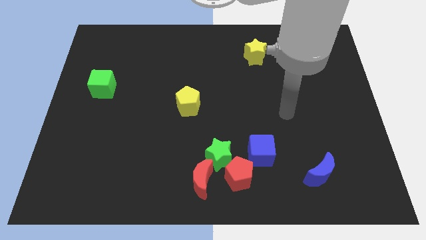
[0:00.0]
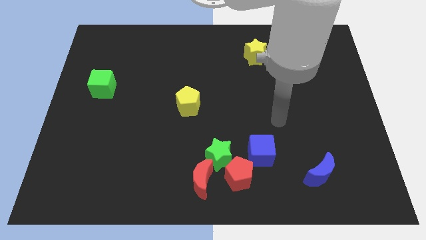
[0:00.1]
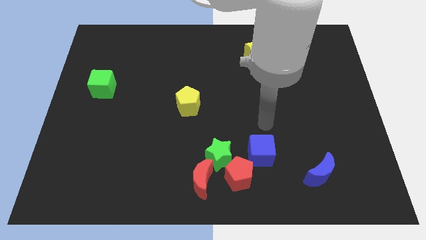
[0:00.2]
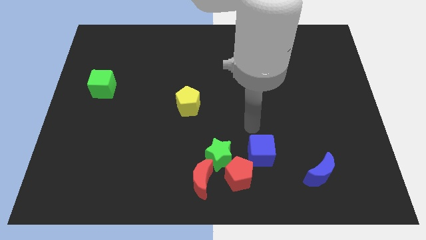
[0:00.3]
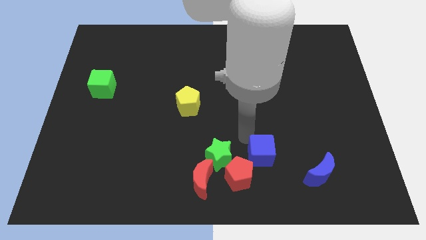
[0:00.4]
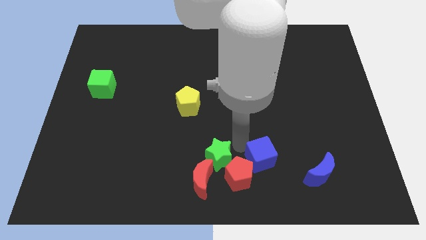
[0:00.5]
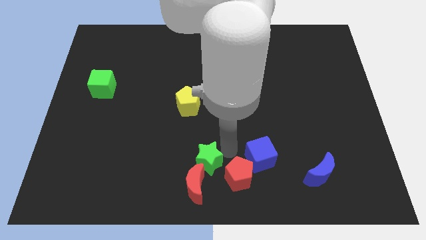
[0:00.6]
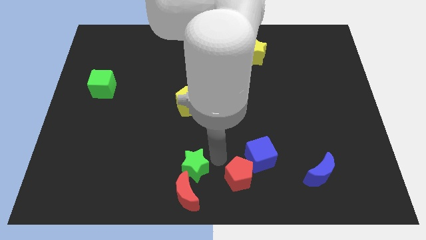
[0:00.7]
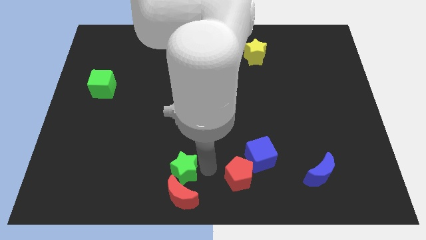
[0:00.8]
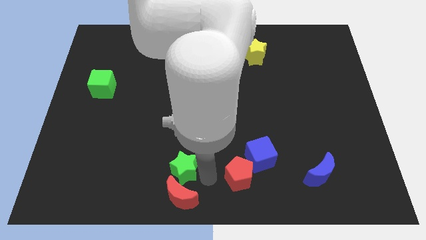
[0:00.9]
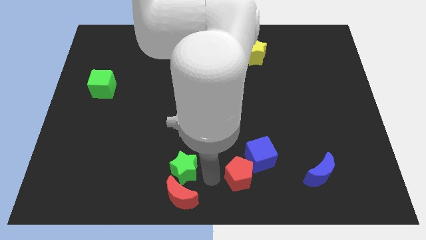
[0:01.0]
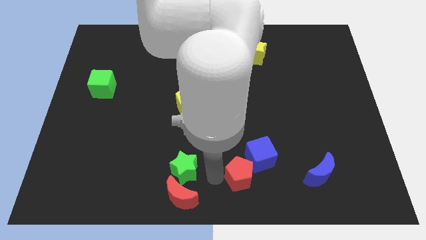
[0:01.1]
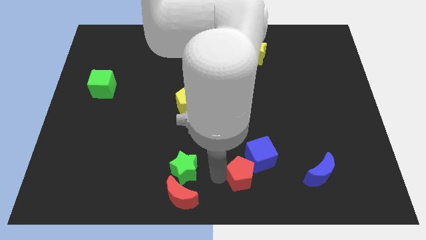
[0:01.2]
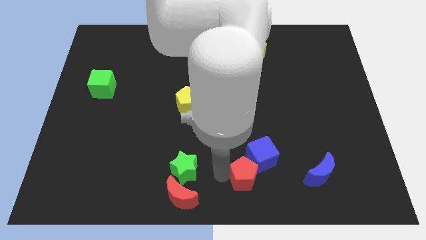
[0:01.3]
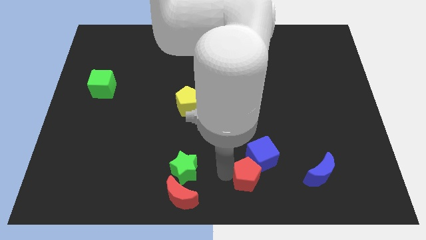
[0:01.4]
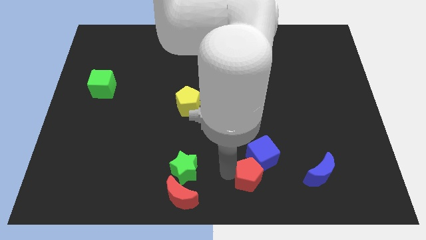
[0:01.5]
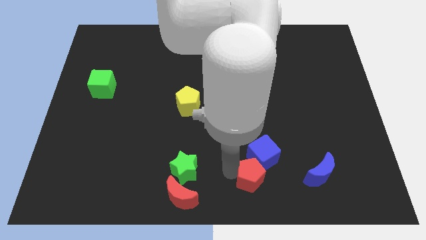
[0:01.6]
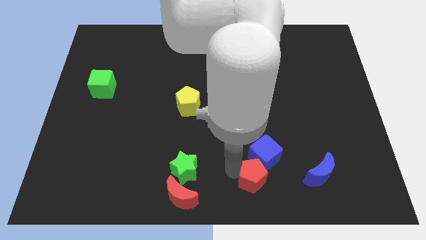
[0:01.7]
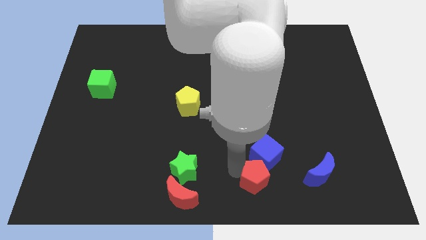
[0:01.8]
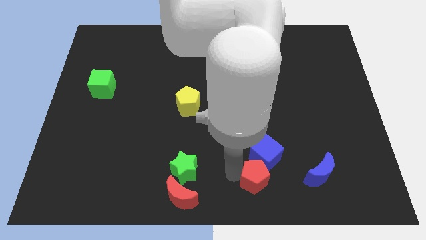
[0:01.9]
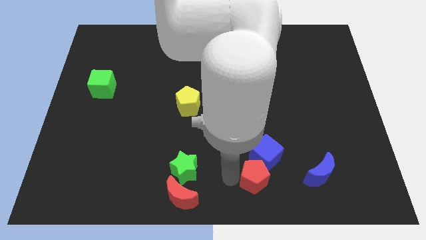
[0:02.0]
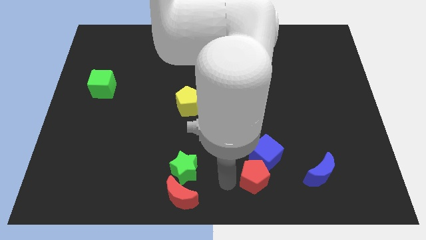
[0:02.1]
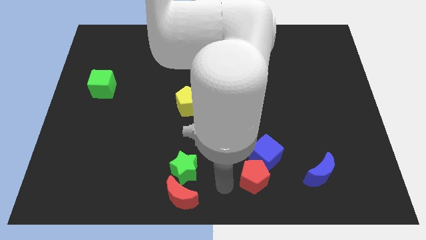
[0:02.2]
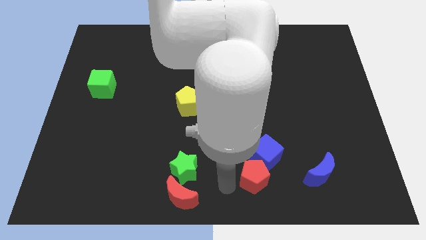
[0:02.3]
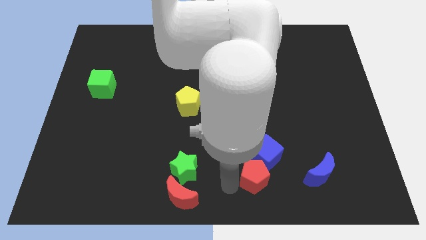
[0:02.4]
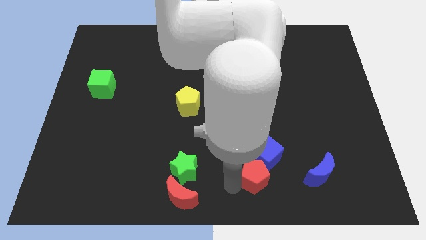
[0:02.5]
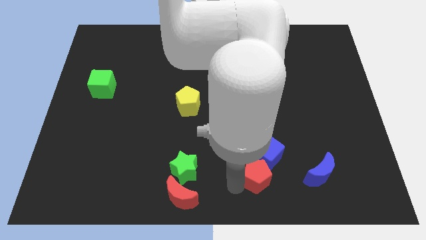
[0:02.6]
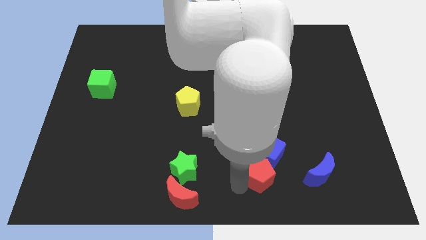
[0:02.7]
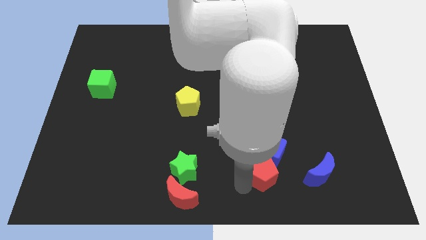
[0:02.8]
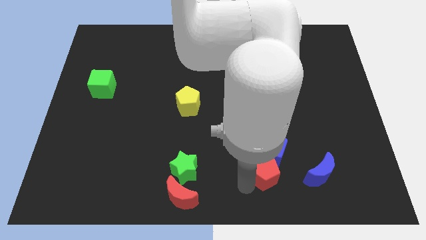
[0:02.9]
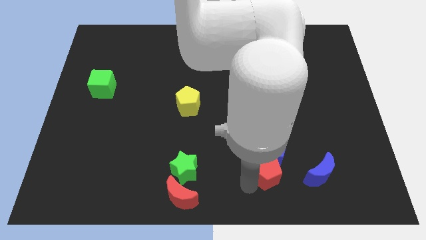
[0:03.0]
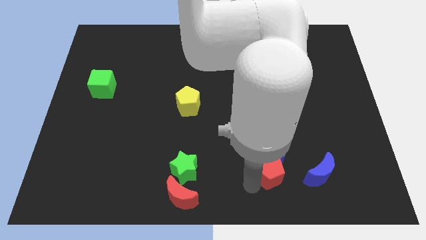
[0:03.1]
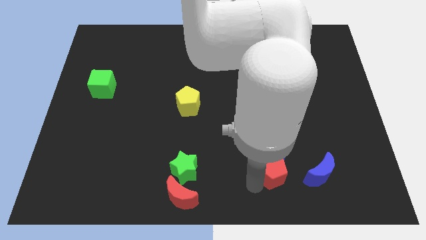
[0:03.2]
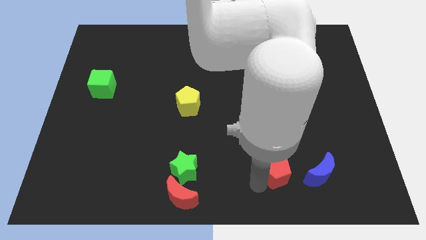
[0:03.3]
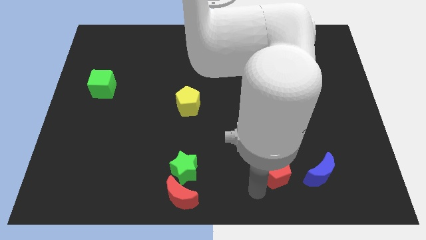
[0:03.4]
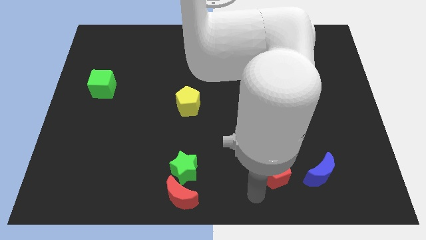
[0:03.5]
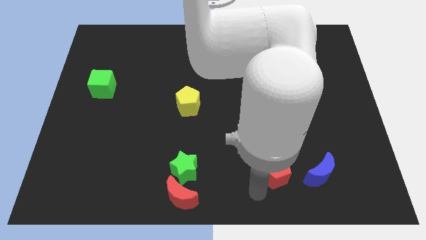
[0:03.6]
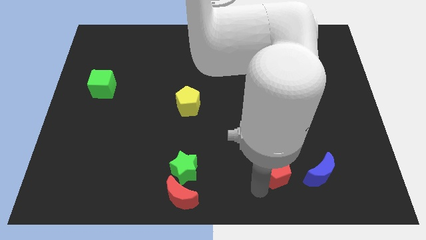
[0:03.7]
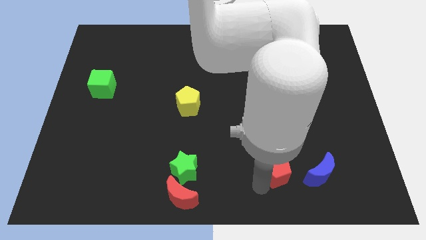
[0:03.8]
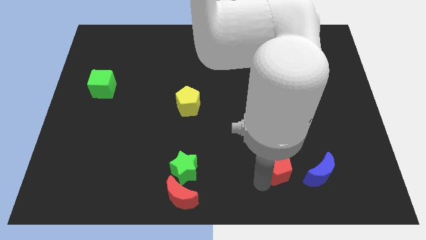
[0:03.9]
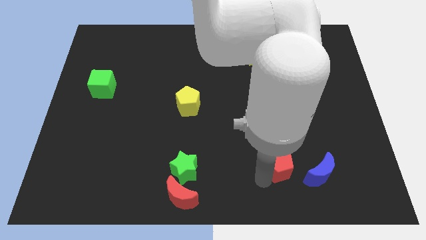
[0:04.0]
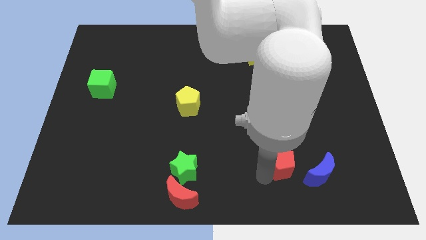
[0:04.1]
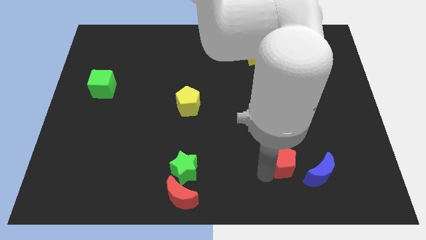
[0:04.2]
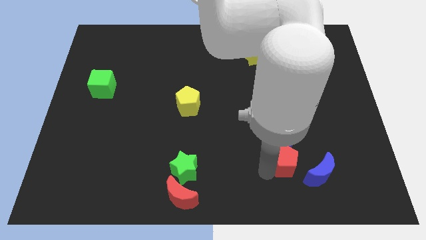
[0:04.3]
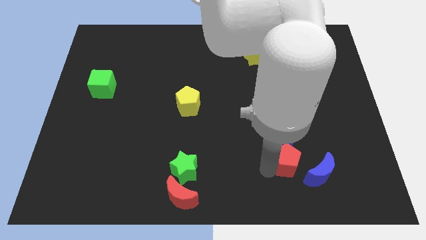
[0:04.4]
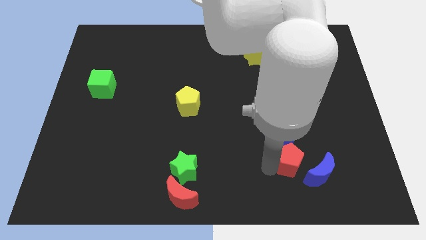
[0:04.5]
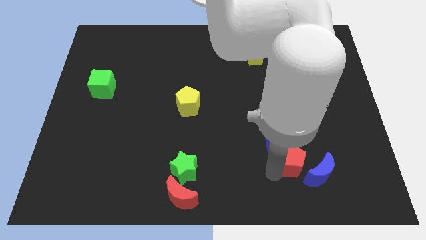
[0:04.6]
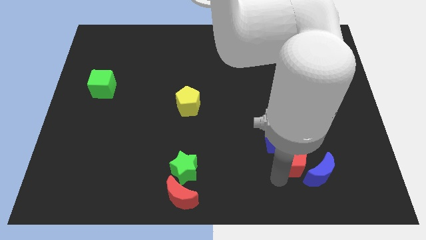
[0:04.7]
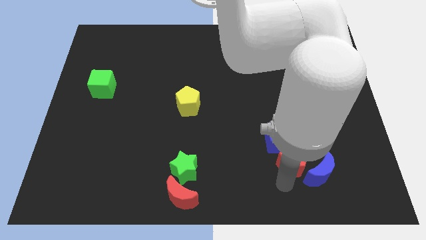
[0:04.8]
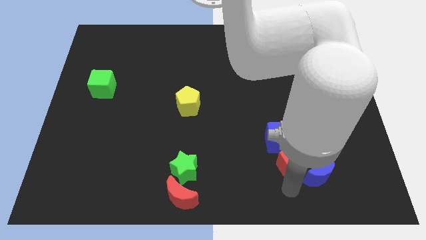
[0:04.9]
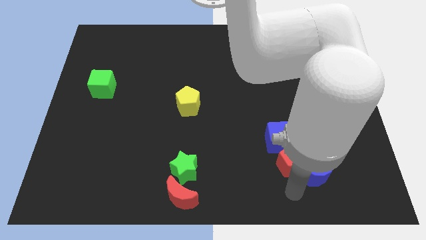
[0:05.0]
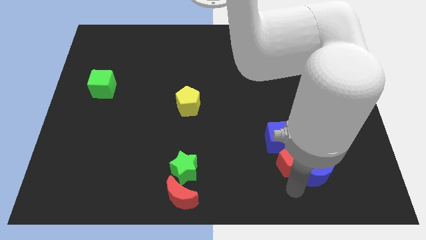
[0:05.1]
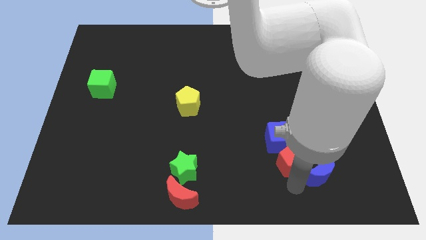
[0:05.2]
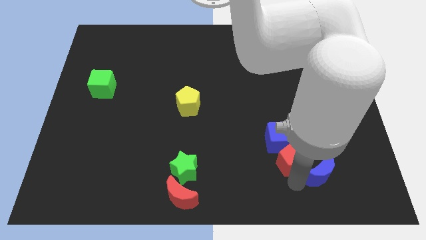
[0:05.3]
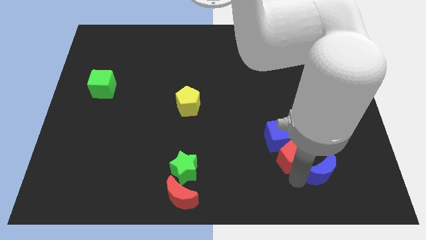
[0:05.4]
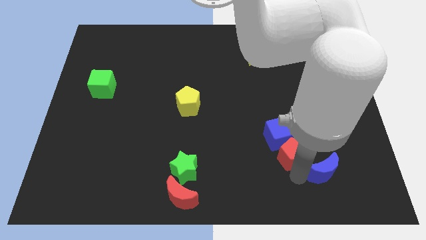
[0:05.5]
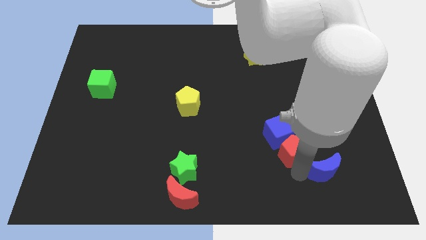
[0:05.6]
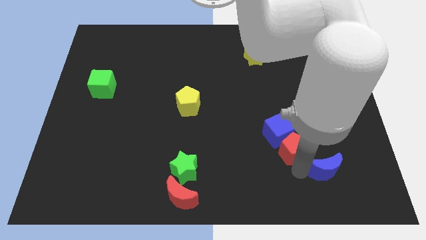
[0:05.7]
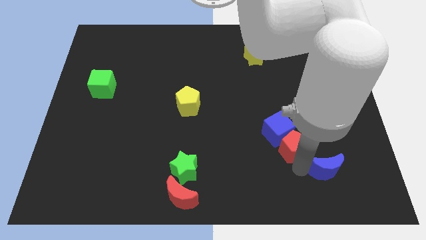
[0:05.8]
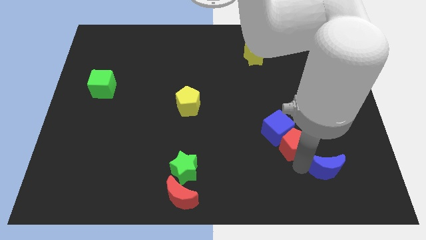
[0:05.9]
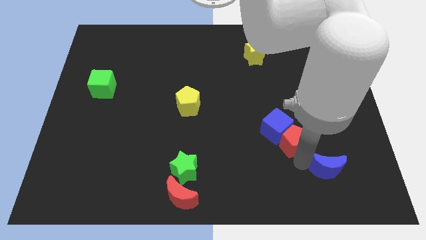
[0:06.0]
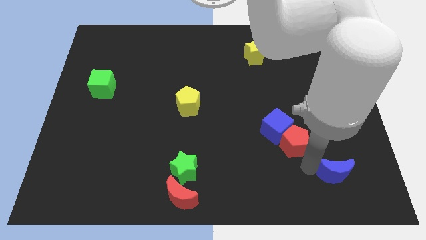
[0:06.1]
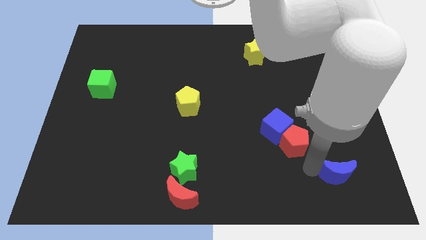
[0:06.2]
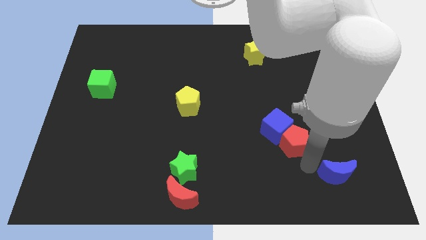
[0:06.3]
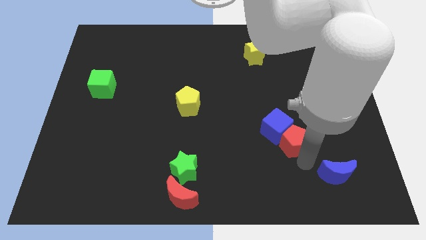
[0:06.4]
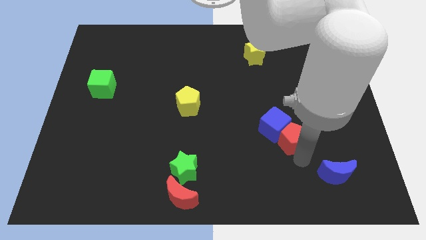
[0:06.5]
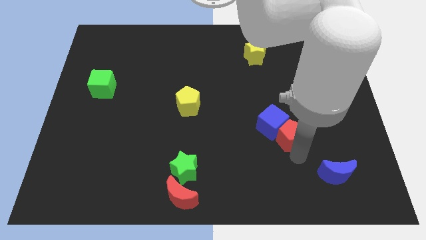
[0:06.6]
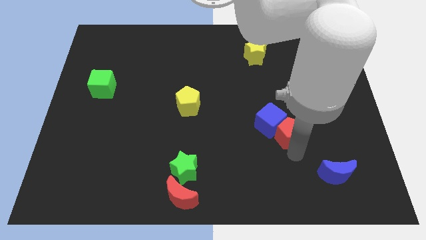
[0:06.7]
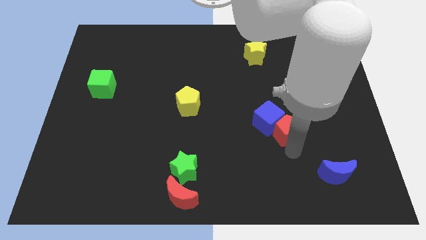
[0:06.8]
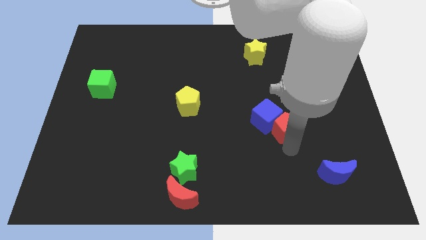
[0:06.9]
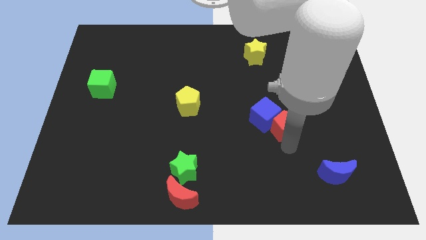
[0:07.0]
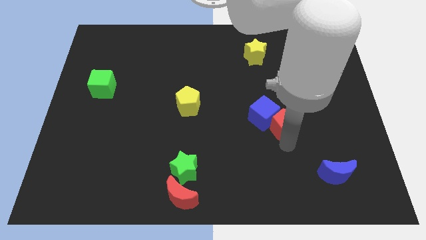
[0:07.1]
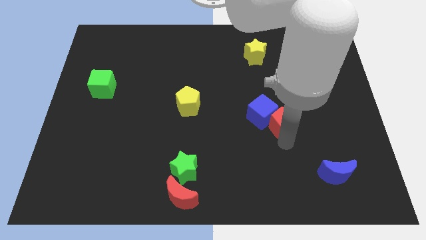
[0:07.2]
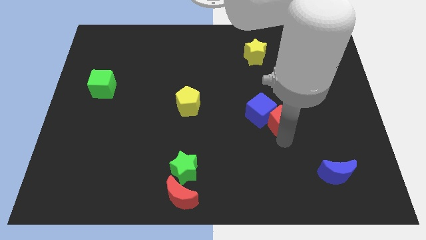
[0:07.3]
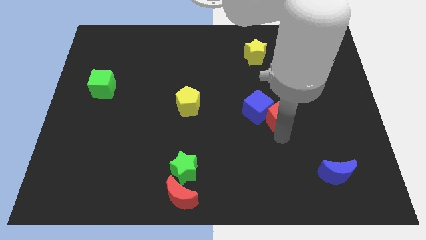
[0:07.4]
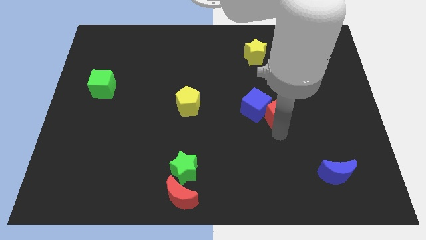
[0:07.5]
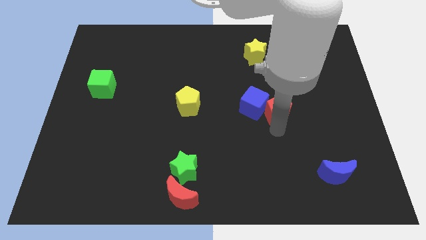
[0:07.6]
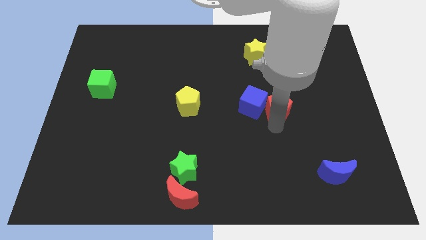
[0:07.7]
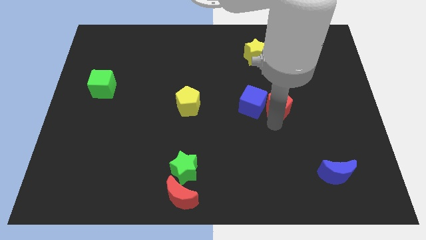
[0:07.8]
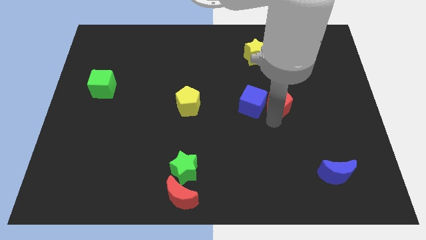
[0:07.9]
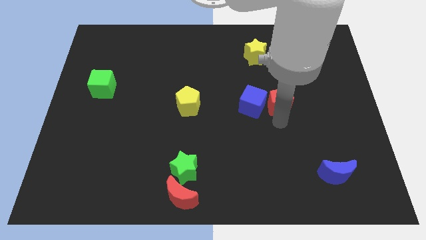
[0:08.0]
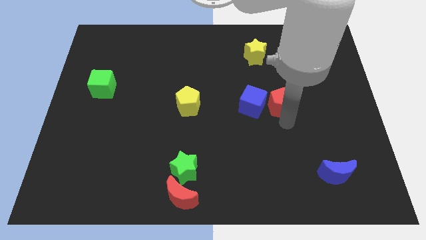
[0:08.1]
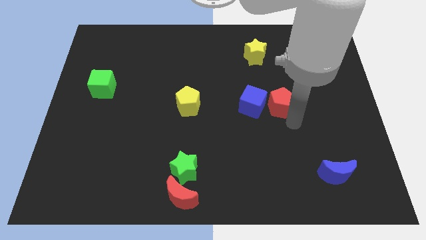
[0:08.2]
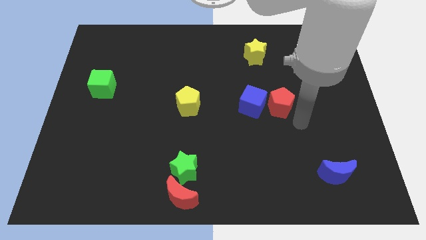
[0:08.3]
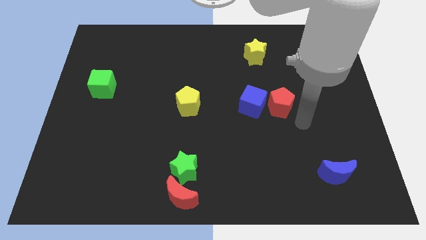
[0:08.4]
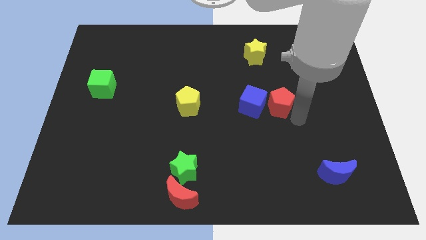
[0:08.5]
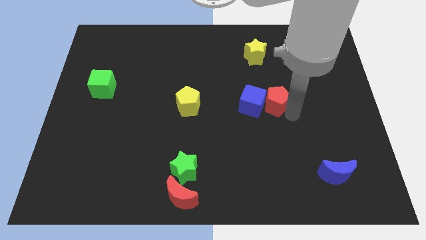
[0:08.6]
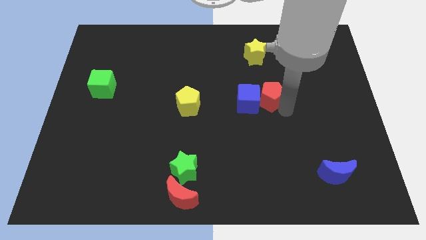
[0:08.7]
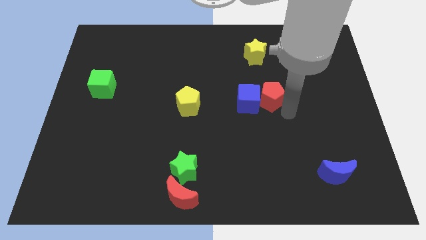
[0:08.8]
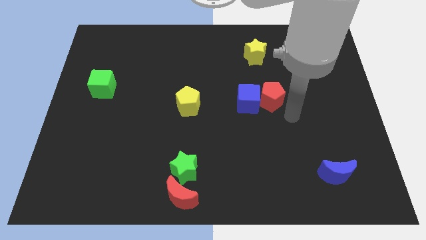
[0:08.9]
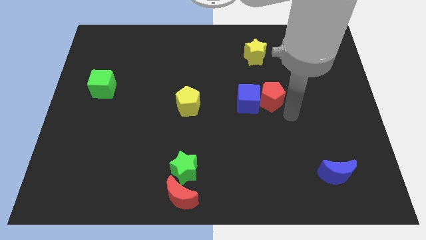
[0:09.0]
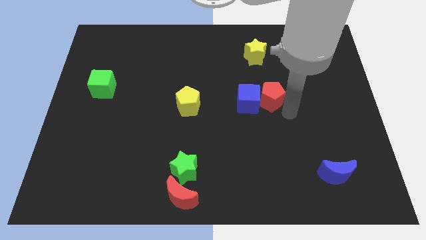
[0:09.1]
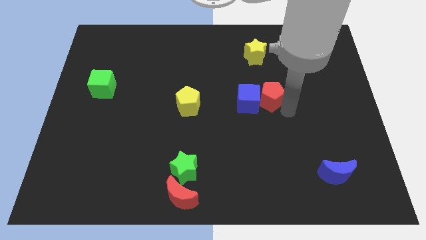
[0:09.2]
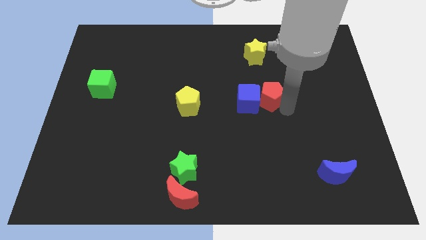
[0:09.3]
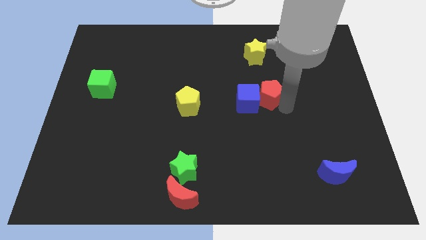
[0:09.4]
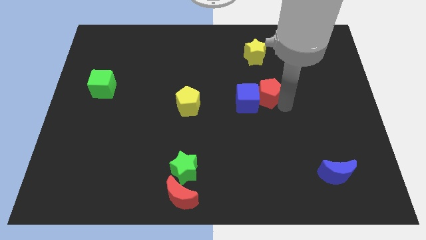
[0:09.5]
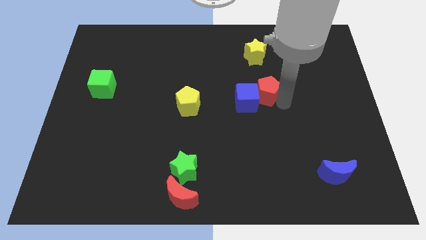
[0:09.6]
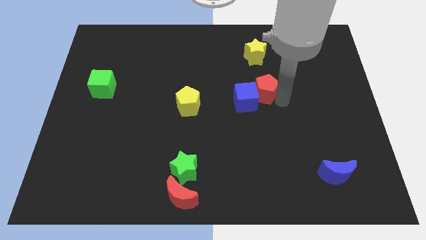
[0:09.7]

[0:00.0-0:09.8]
slide the red pentagon upwards
